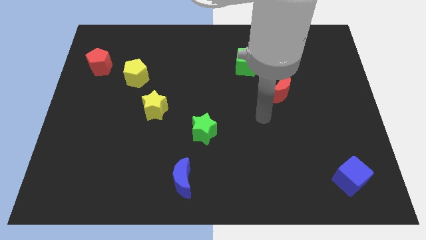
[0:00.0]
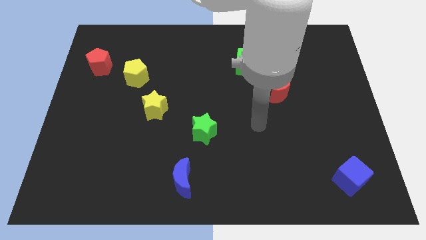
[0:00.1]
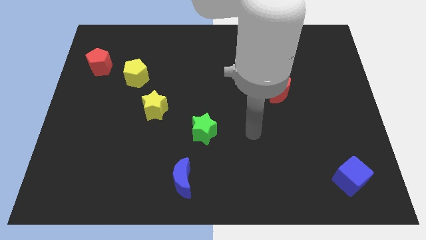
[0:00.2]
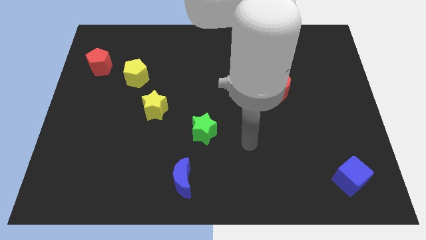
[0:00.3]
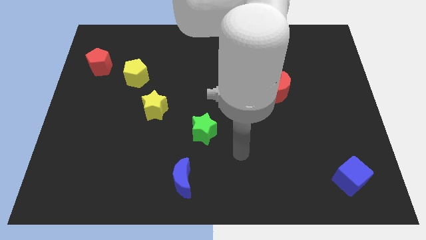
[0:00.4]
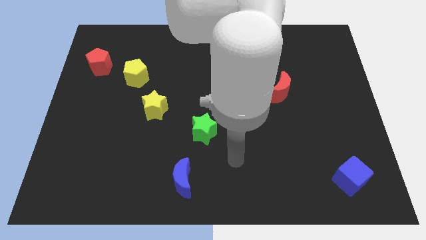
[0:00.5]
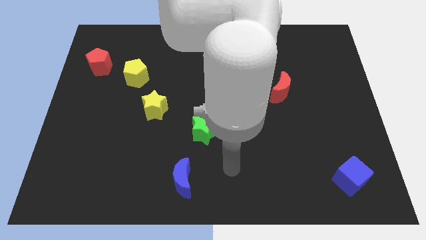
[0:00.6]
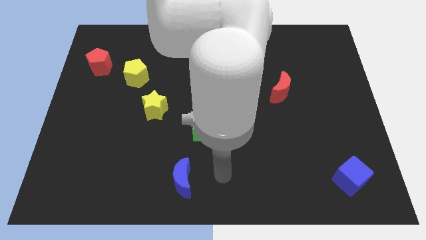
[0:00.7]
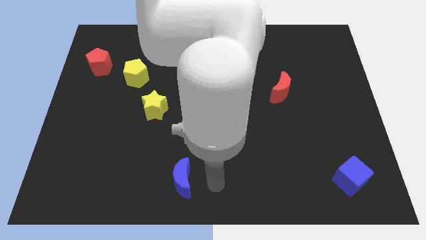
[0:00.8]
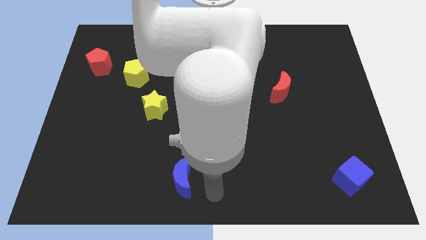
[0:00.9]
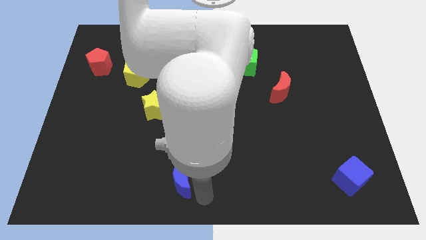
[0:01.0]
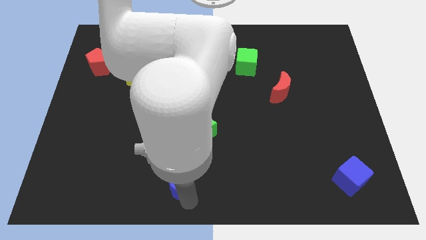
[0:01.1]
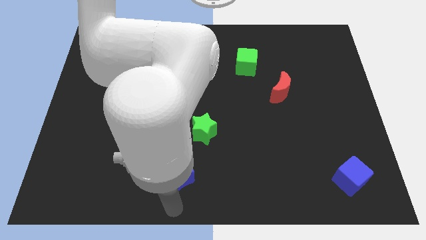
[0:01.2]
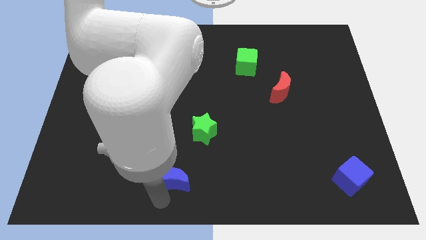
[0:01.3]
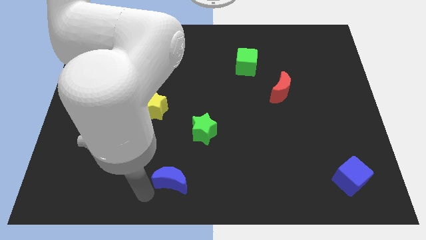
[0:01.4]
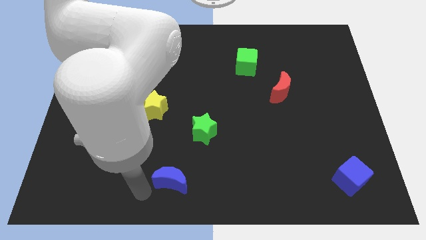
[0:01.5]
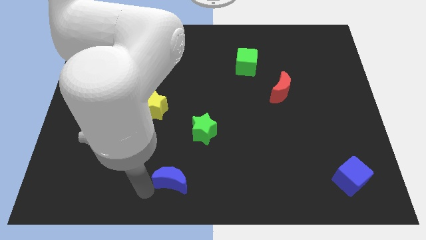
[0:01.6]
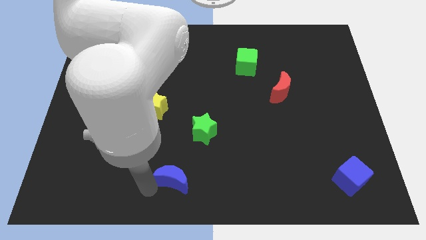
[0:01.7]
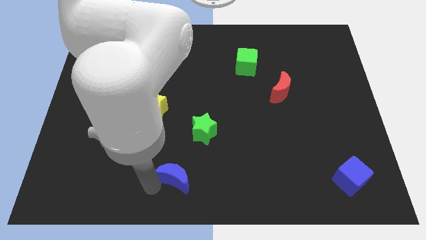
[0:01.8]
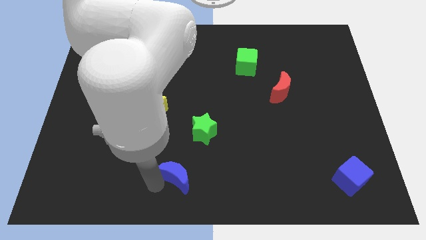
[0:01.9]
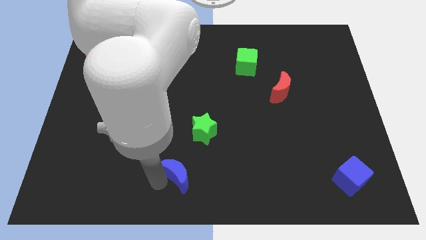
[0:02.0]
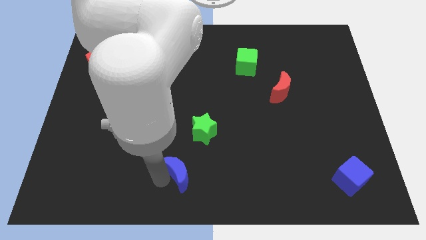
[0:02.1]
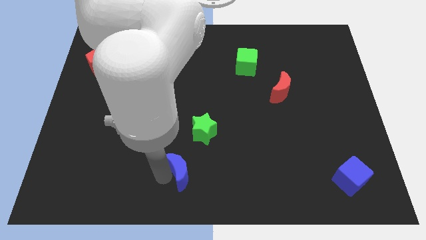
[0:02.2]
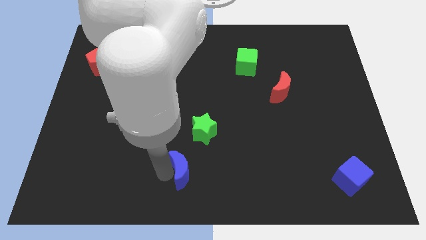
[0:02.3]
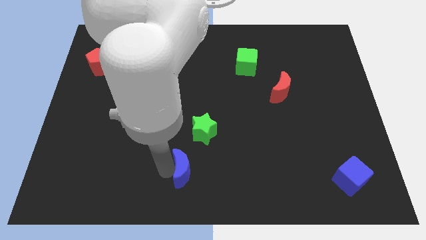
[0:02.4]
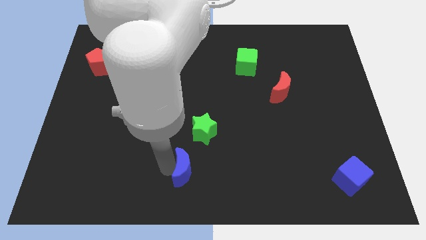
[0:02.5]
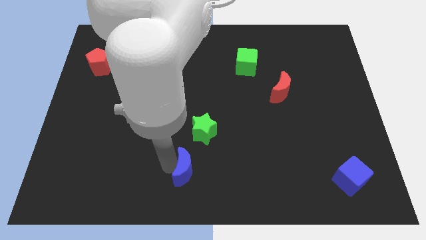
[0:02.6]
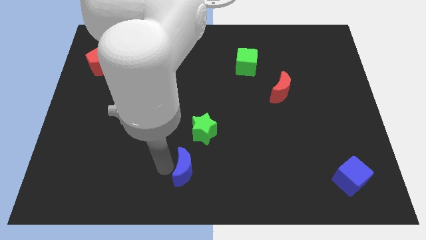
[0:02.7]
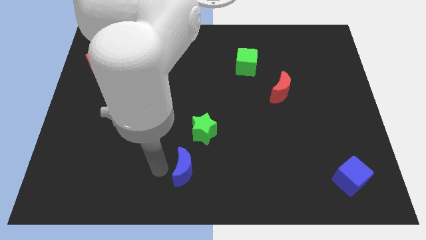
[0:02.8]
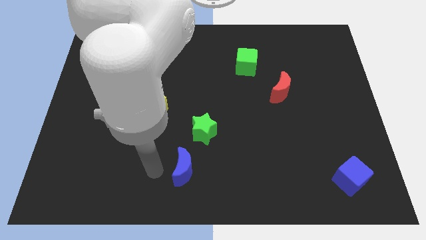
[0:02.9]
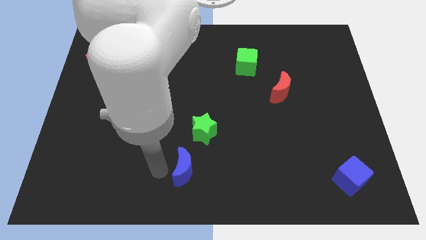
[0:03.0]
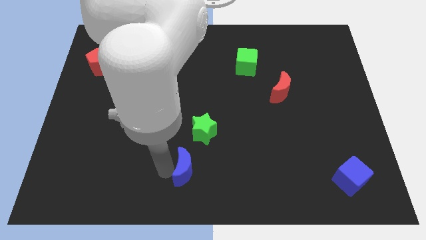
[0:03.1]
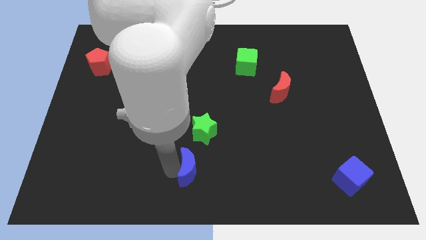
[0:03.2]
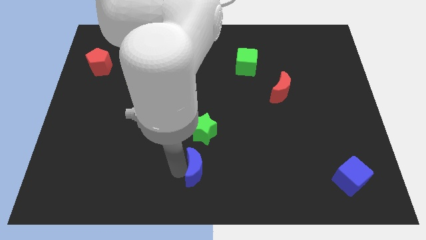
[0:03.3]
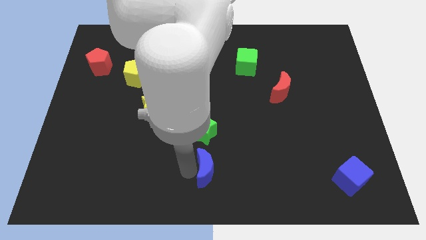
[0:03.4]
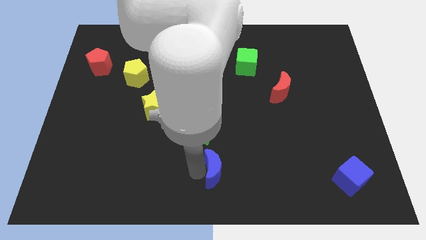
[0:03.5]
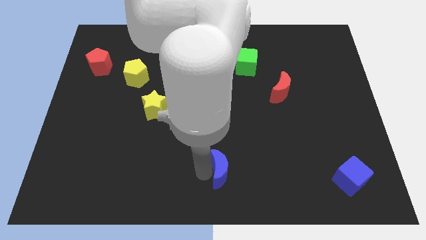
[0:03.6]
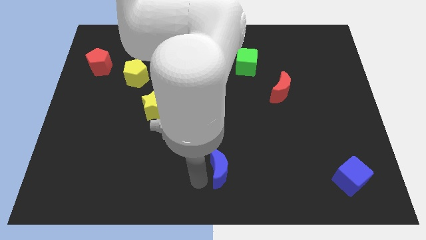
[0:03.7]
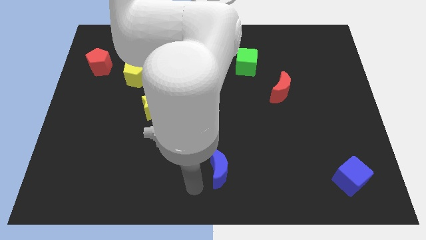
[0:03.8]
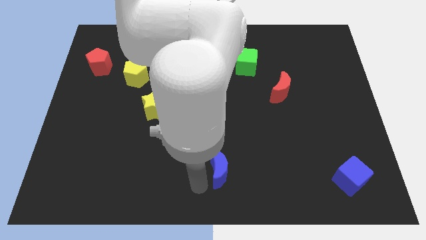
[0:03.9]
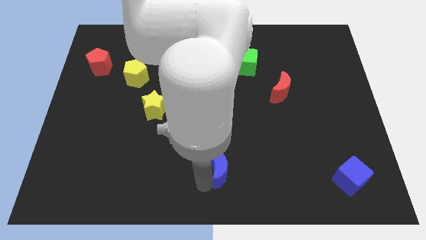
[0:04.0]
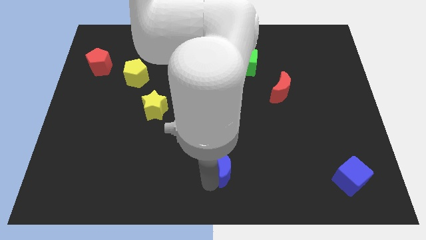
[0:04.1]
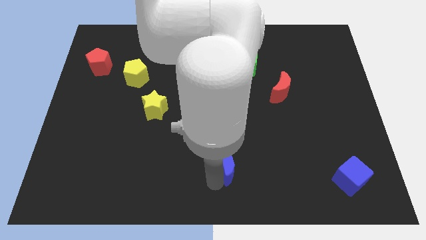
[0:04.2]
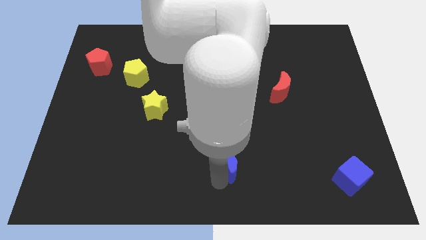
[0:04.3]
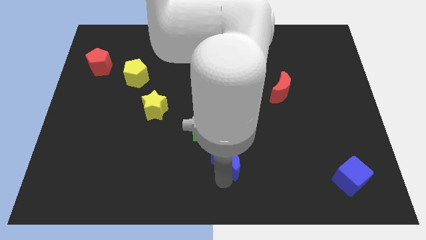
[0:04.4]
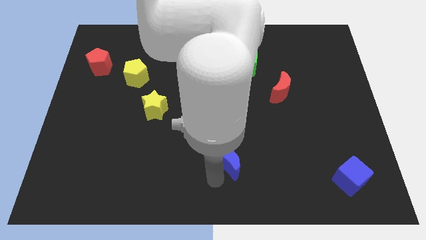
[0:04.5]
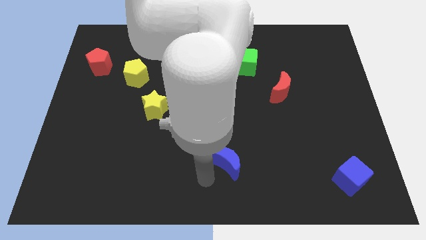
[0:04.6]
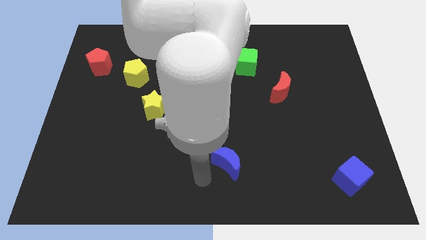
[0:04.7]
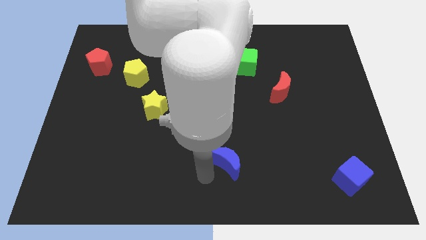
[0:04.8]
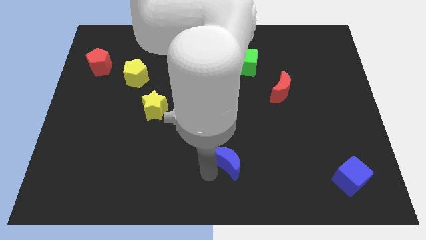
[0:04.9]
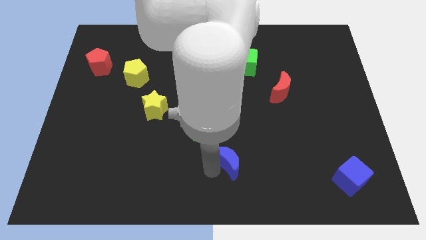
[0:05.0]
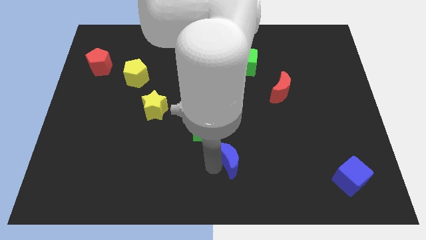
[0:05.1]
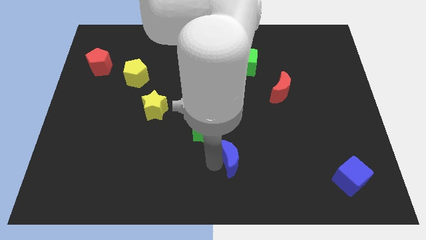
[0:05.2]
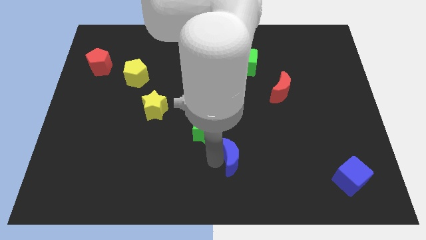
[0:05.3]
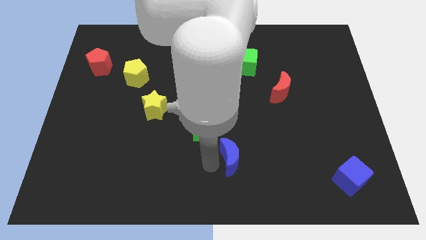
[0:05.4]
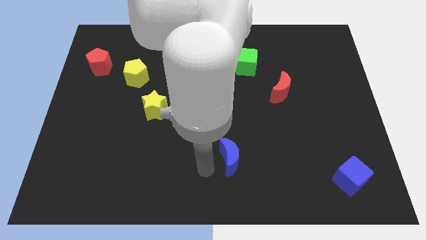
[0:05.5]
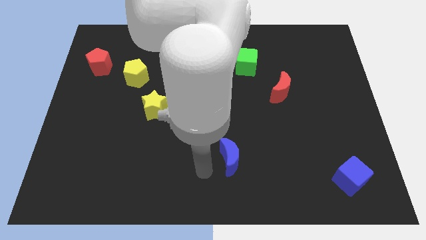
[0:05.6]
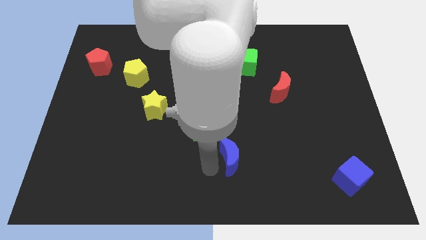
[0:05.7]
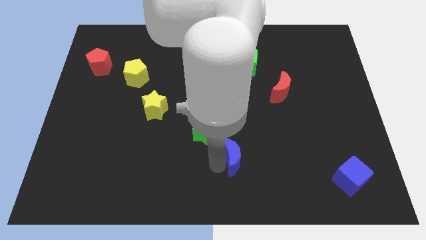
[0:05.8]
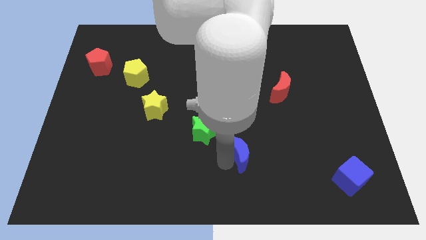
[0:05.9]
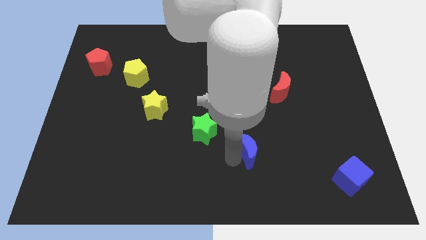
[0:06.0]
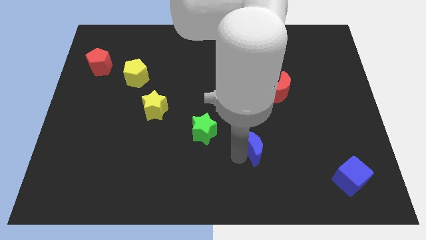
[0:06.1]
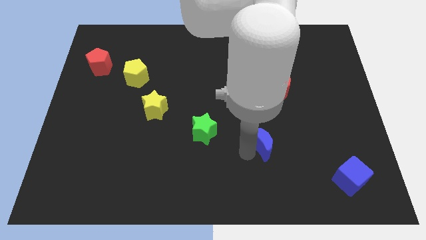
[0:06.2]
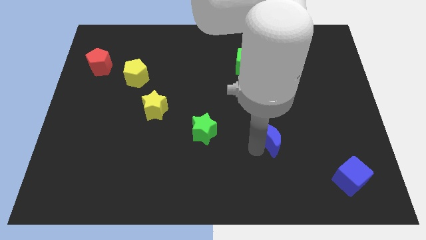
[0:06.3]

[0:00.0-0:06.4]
move the blue moon below the red moon

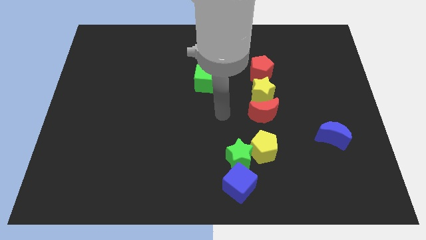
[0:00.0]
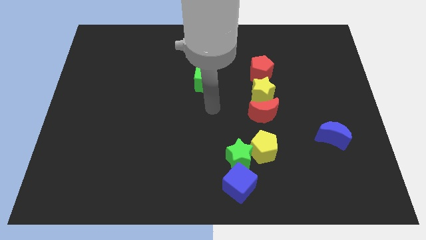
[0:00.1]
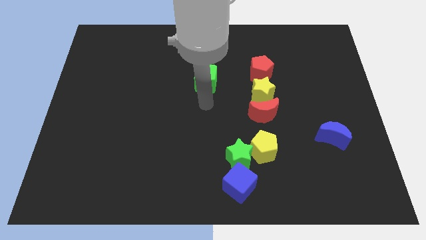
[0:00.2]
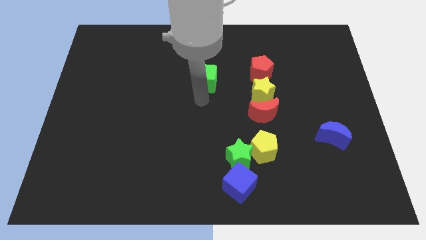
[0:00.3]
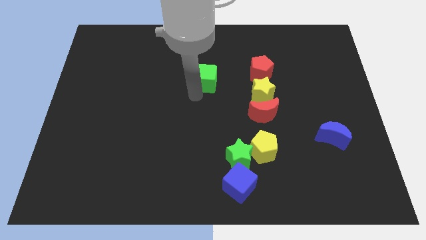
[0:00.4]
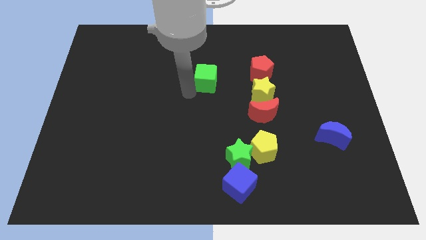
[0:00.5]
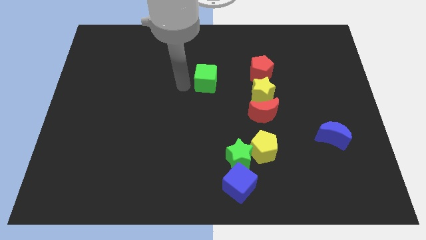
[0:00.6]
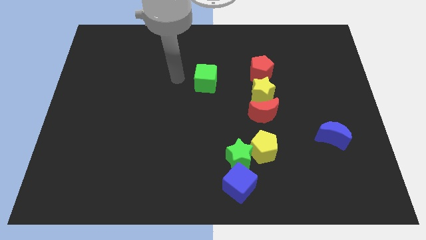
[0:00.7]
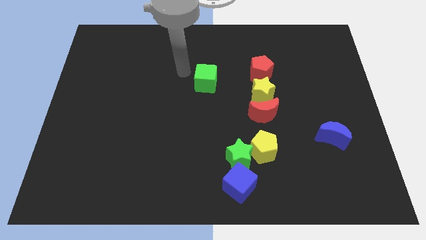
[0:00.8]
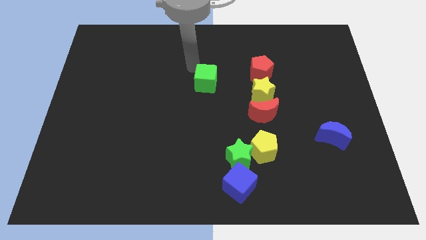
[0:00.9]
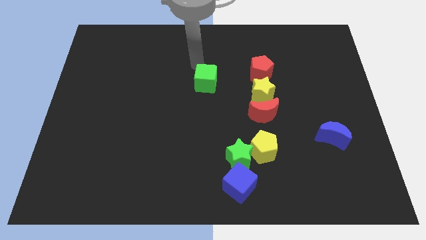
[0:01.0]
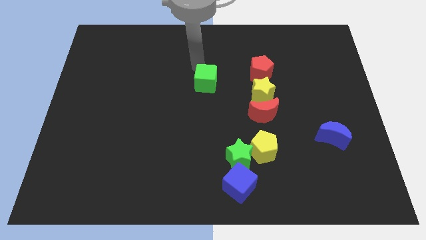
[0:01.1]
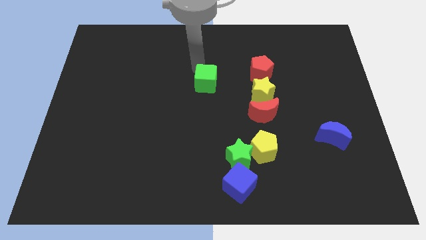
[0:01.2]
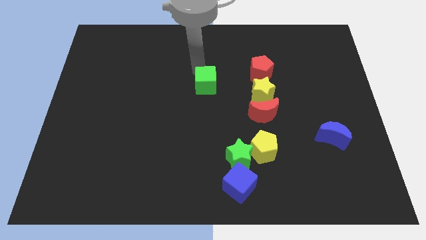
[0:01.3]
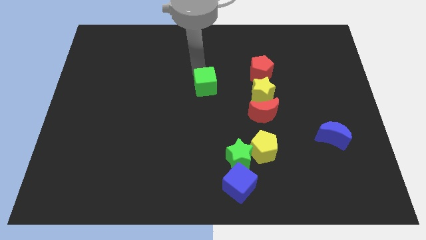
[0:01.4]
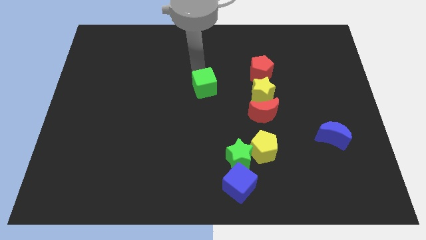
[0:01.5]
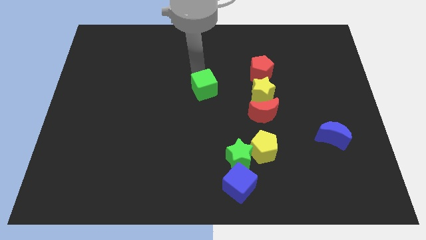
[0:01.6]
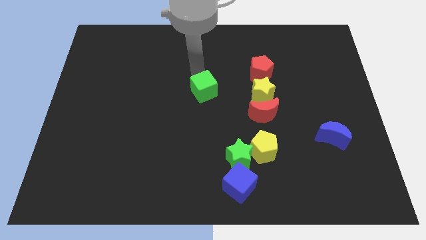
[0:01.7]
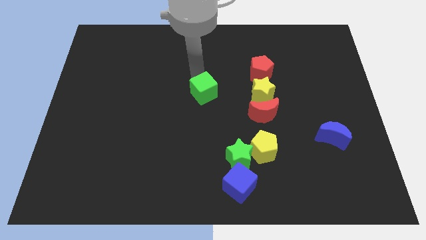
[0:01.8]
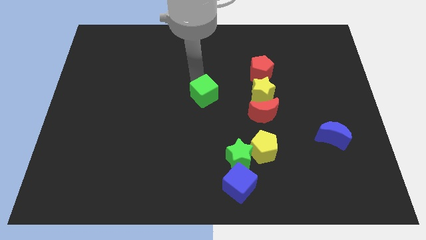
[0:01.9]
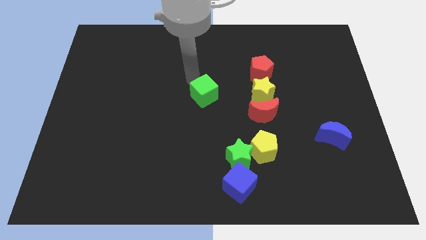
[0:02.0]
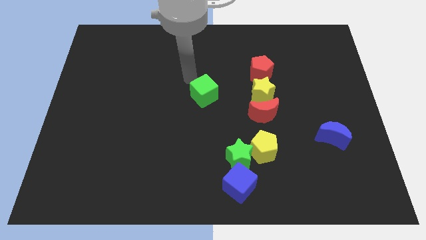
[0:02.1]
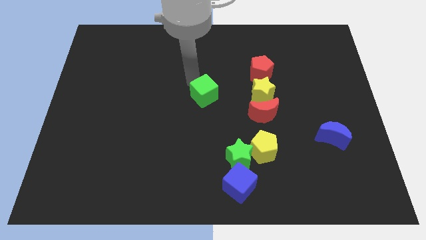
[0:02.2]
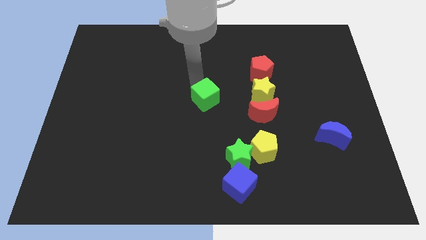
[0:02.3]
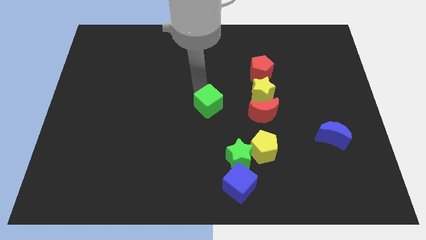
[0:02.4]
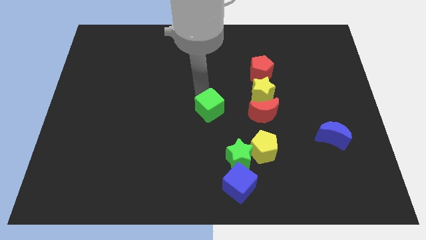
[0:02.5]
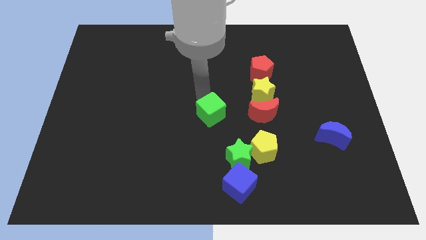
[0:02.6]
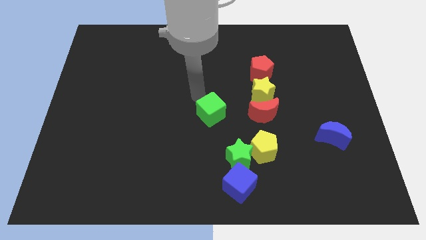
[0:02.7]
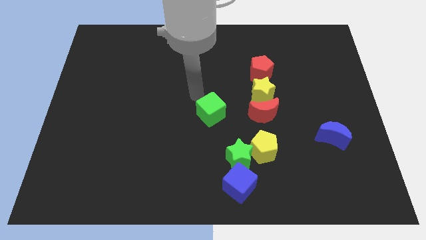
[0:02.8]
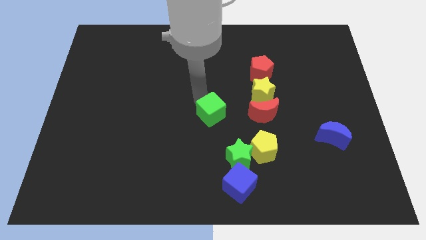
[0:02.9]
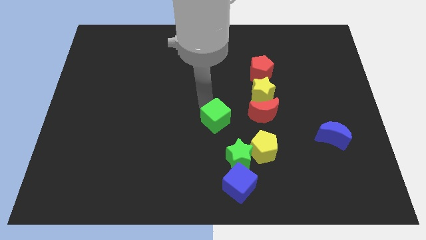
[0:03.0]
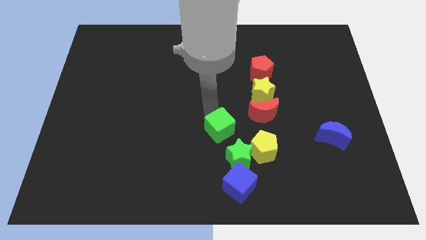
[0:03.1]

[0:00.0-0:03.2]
slide the green cube to the top of the blue cube
